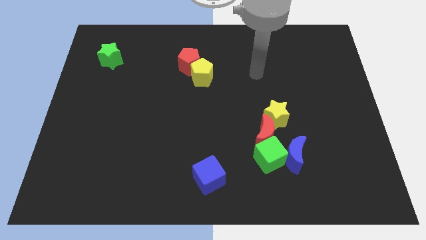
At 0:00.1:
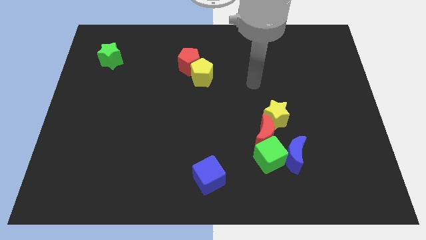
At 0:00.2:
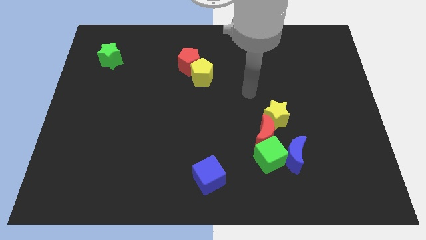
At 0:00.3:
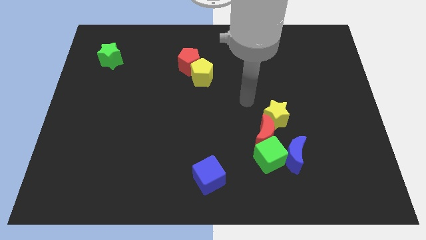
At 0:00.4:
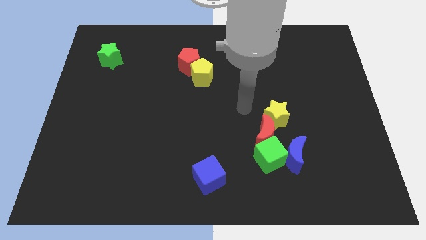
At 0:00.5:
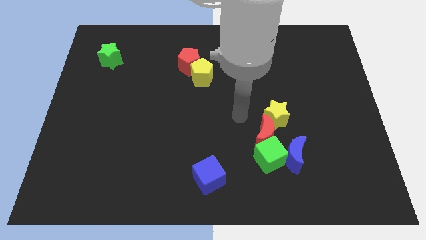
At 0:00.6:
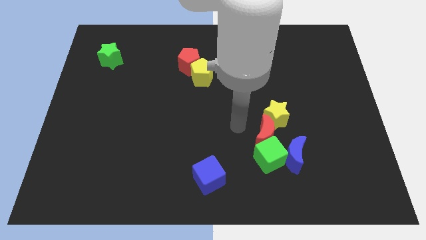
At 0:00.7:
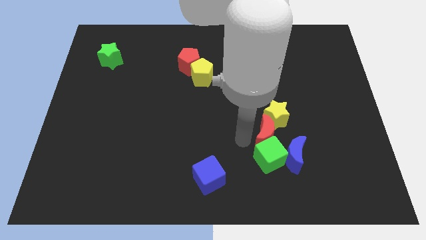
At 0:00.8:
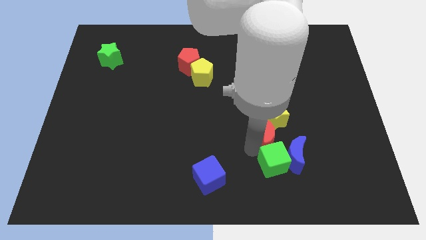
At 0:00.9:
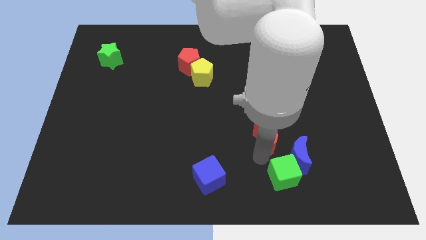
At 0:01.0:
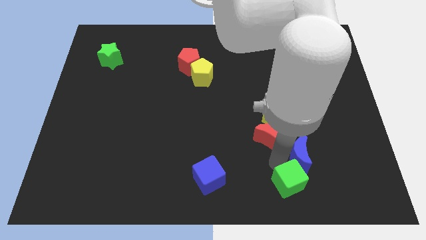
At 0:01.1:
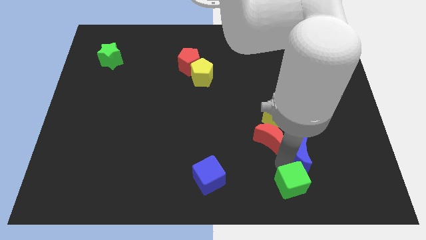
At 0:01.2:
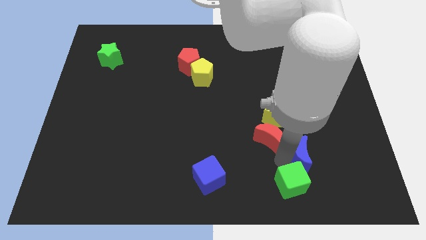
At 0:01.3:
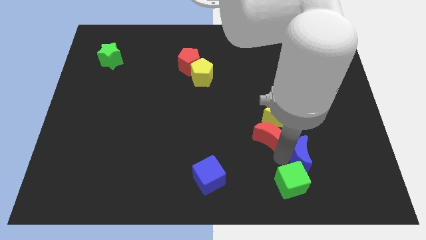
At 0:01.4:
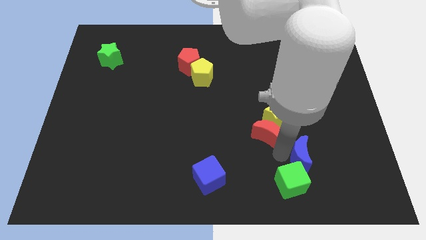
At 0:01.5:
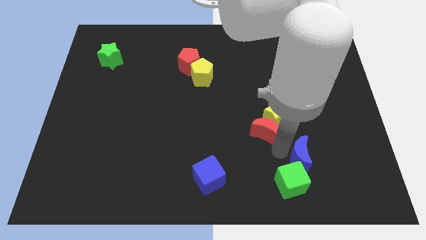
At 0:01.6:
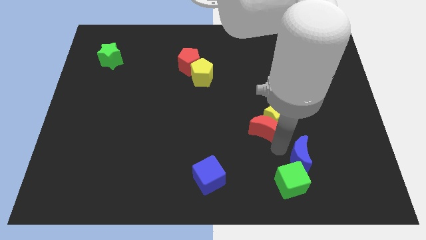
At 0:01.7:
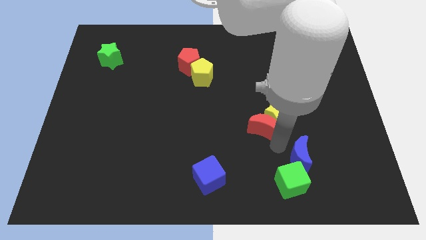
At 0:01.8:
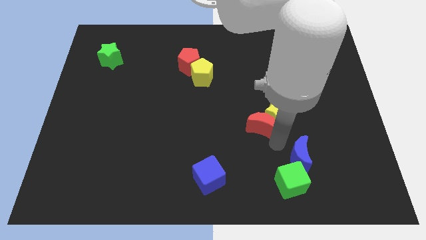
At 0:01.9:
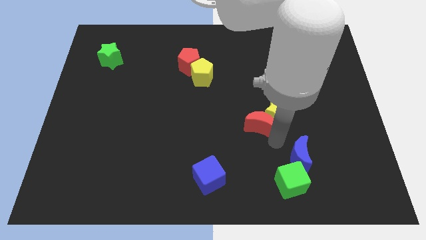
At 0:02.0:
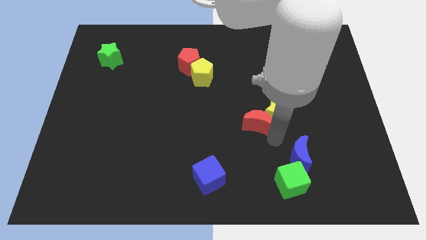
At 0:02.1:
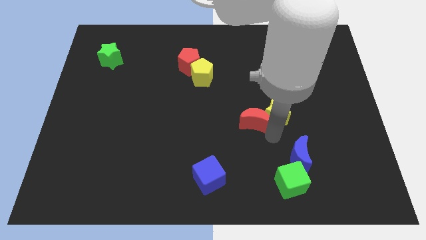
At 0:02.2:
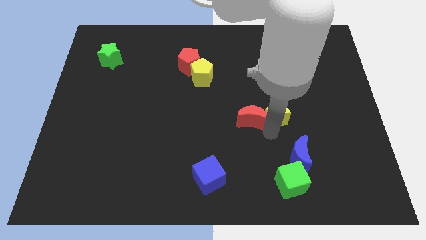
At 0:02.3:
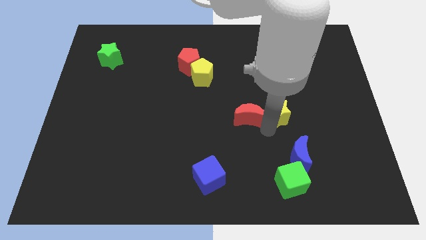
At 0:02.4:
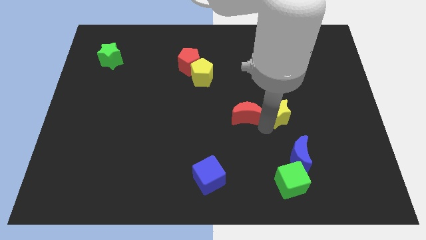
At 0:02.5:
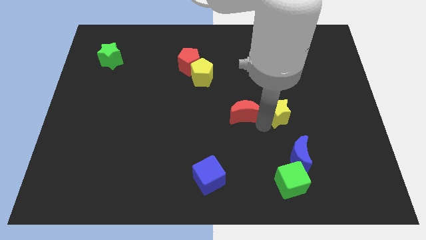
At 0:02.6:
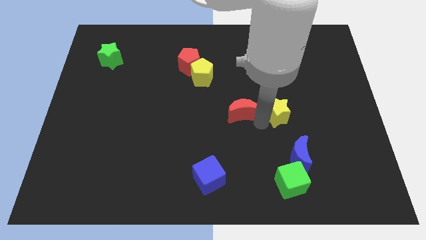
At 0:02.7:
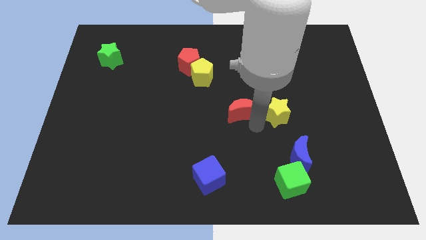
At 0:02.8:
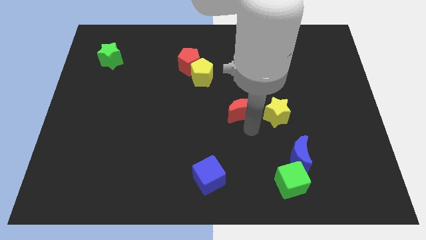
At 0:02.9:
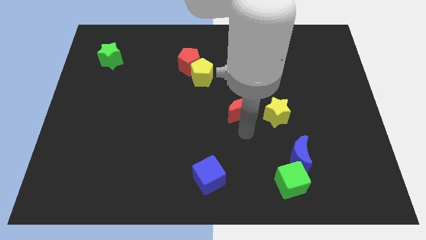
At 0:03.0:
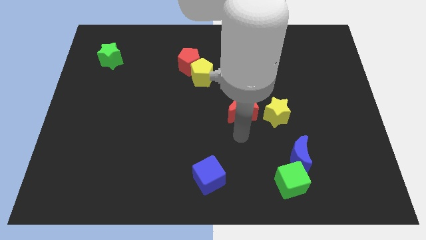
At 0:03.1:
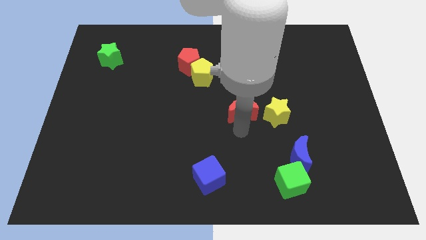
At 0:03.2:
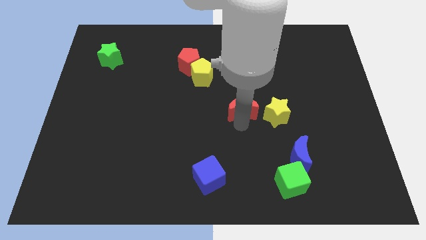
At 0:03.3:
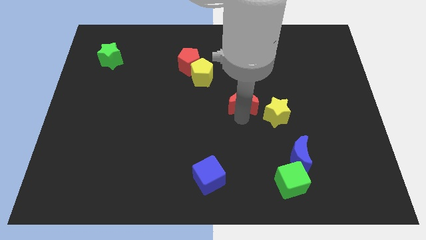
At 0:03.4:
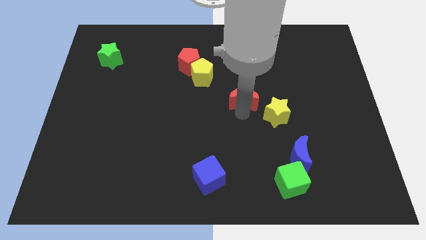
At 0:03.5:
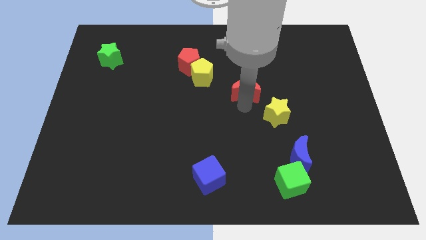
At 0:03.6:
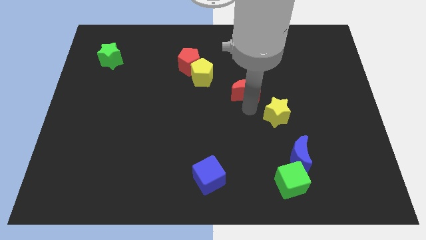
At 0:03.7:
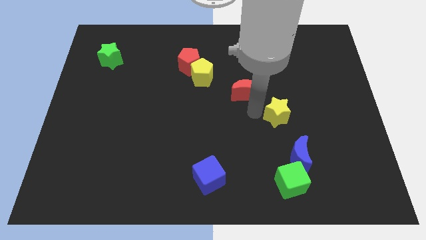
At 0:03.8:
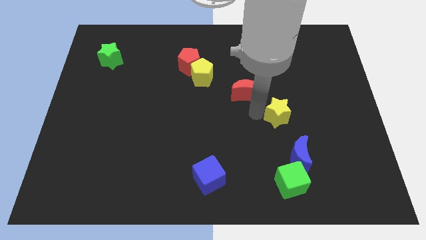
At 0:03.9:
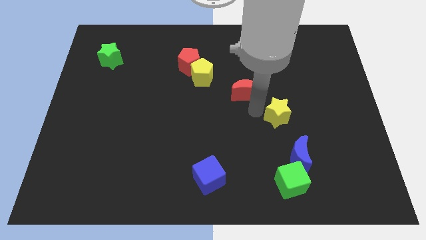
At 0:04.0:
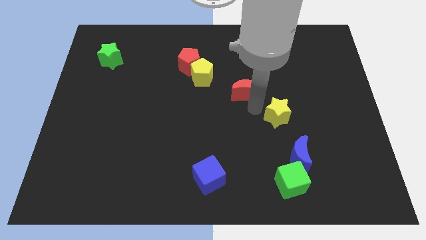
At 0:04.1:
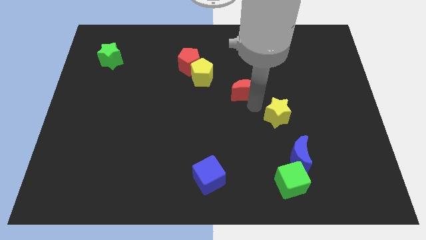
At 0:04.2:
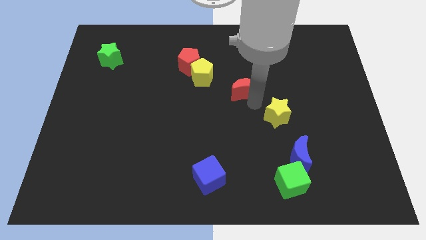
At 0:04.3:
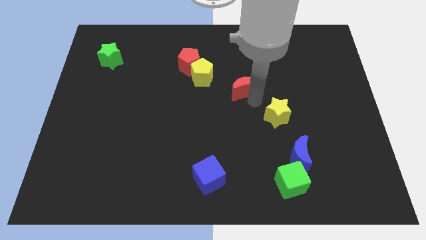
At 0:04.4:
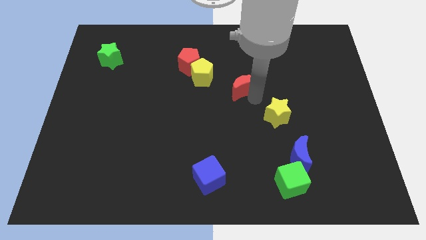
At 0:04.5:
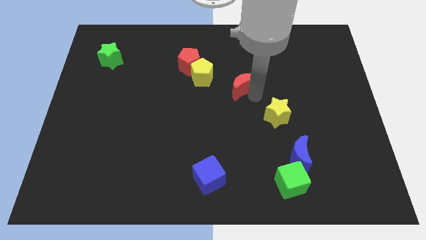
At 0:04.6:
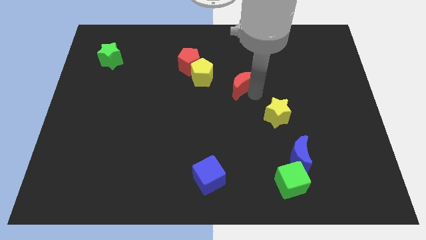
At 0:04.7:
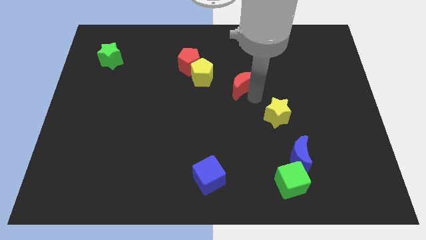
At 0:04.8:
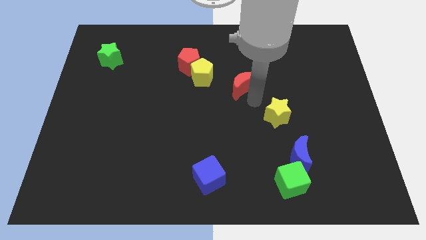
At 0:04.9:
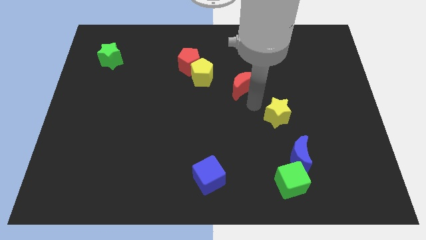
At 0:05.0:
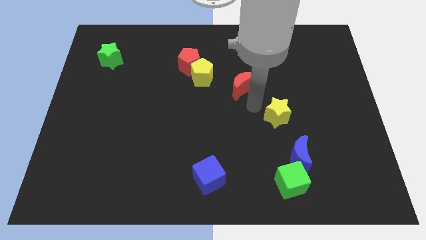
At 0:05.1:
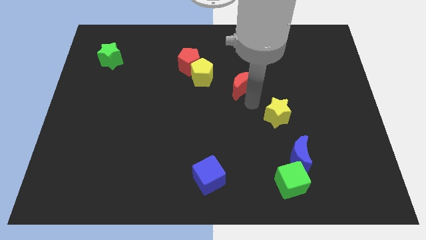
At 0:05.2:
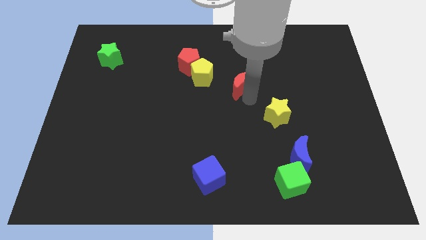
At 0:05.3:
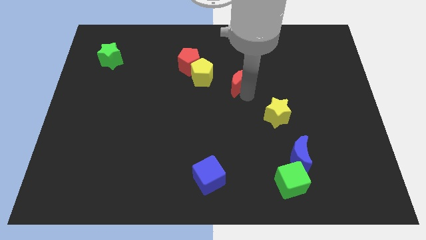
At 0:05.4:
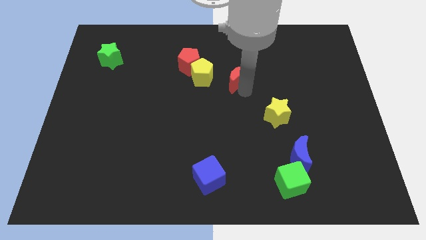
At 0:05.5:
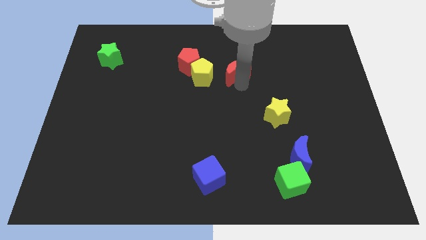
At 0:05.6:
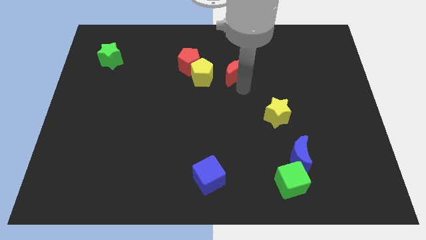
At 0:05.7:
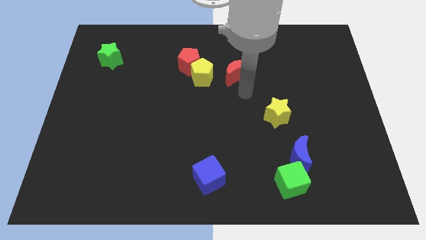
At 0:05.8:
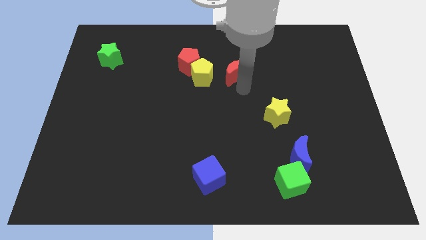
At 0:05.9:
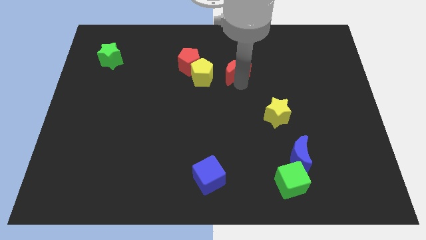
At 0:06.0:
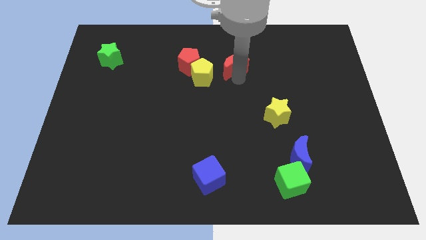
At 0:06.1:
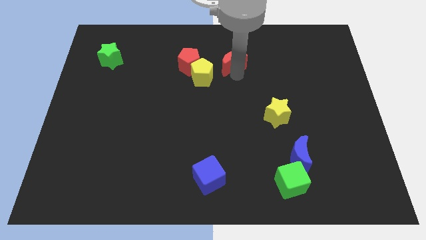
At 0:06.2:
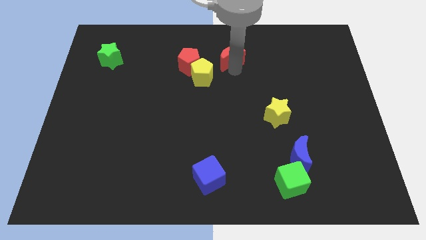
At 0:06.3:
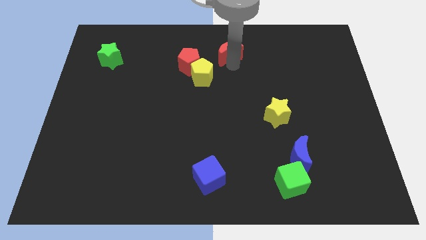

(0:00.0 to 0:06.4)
move the red moon to the top side
